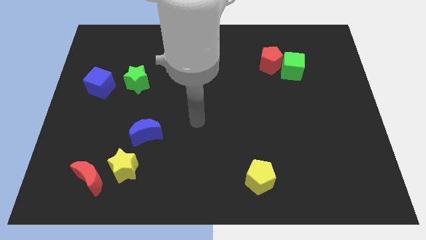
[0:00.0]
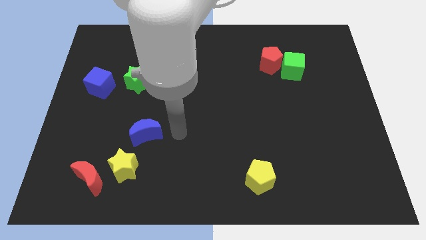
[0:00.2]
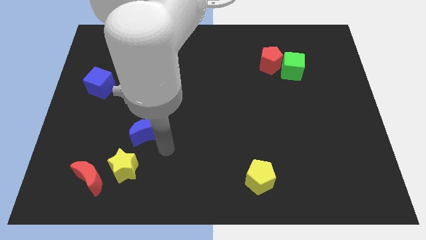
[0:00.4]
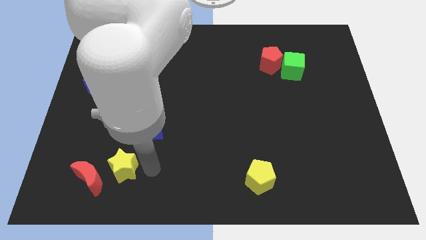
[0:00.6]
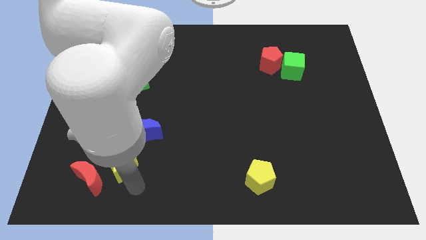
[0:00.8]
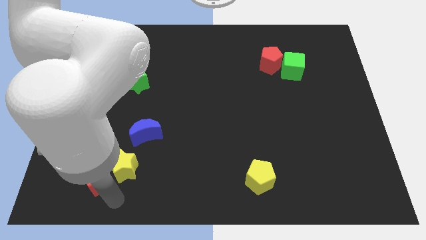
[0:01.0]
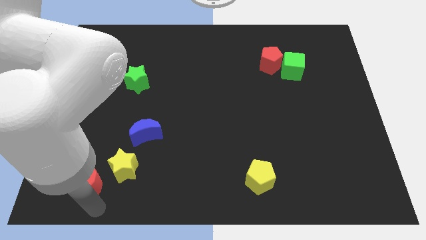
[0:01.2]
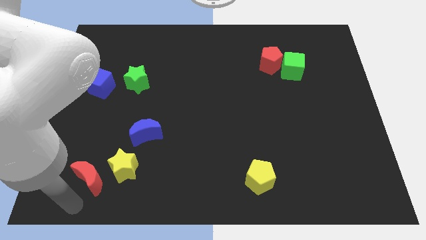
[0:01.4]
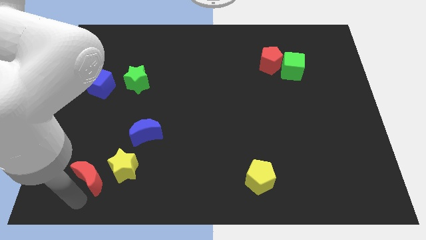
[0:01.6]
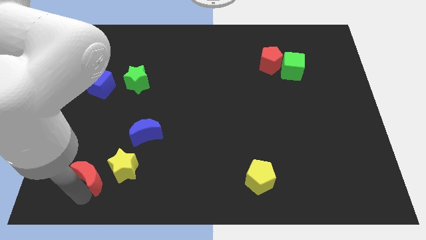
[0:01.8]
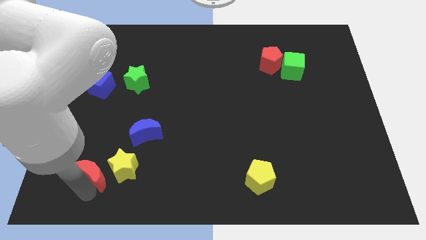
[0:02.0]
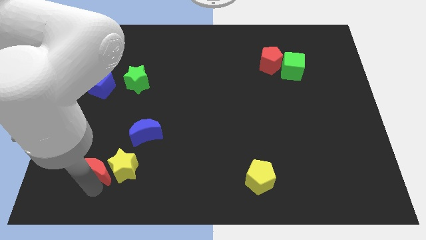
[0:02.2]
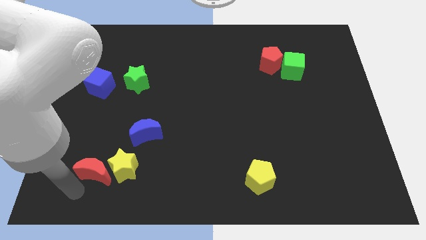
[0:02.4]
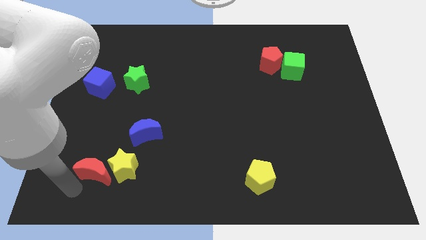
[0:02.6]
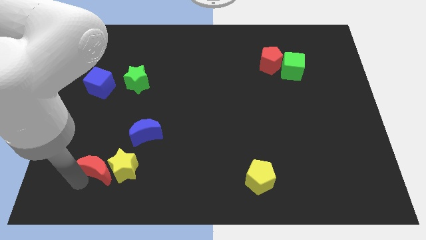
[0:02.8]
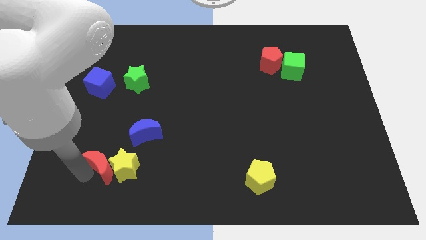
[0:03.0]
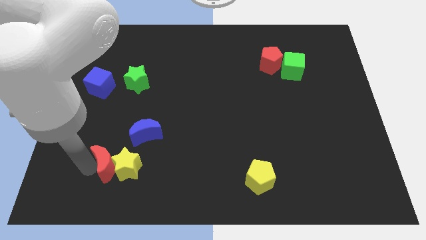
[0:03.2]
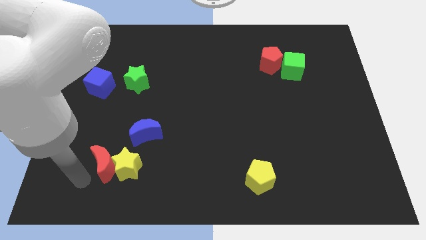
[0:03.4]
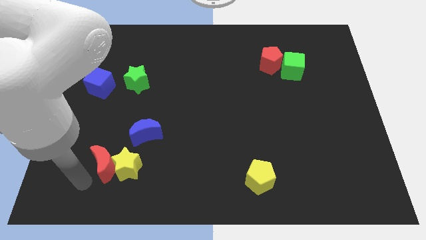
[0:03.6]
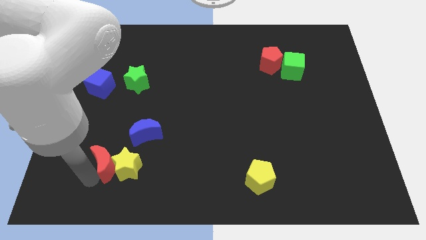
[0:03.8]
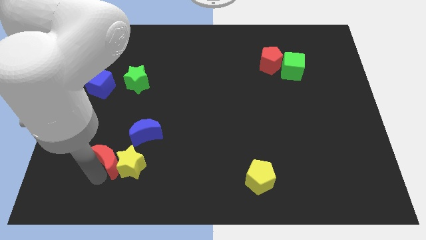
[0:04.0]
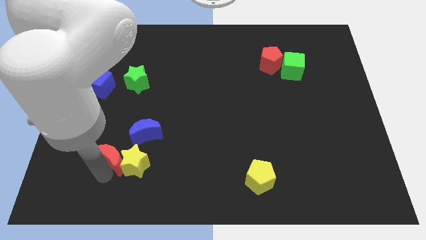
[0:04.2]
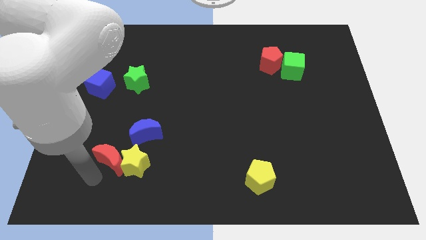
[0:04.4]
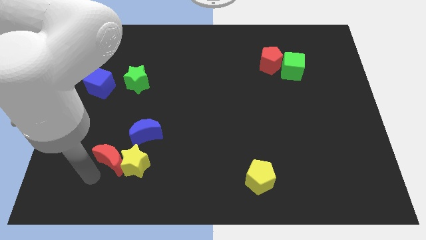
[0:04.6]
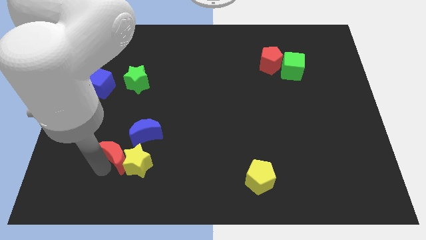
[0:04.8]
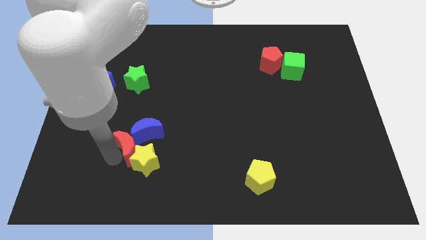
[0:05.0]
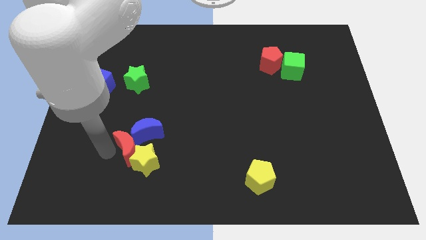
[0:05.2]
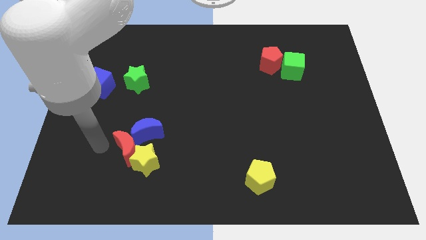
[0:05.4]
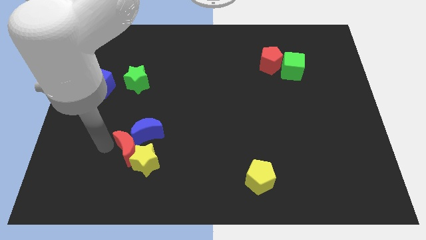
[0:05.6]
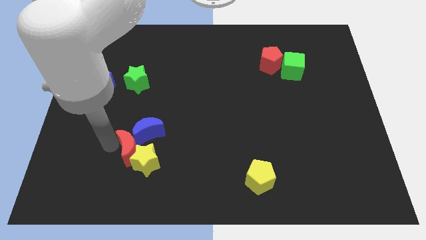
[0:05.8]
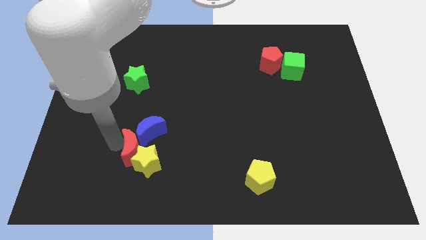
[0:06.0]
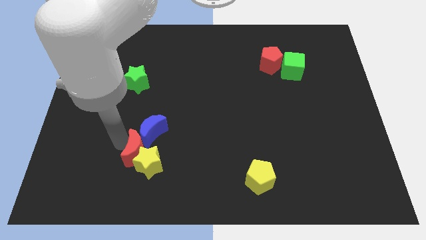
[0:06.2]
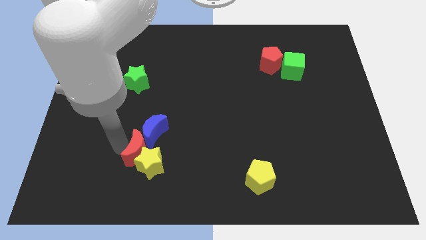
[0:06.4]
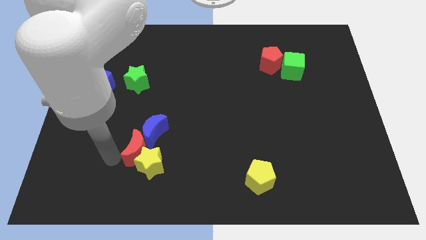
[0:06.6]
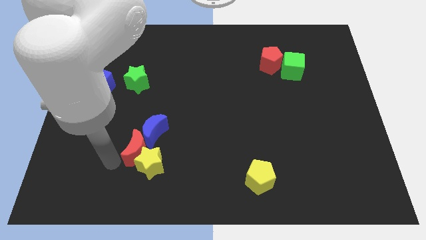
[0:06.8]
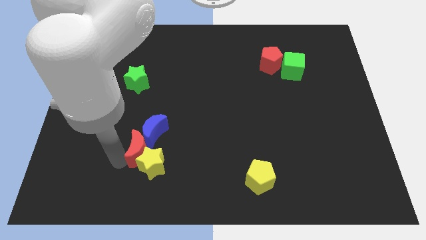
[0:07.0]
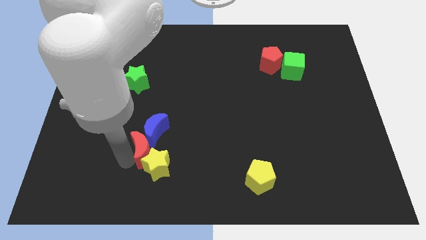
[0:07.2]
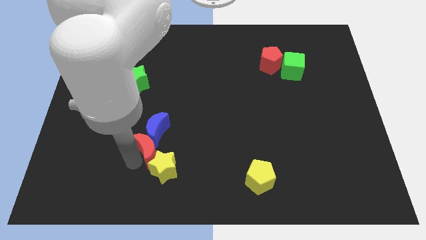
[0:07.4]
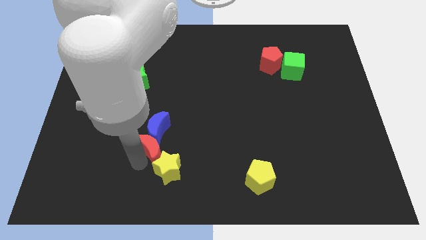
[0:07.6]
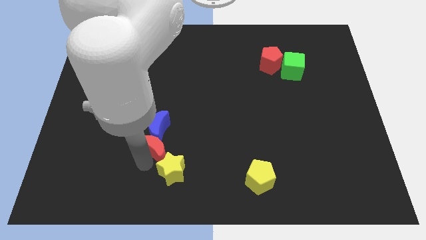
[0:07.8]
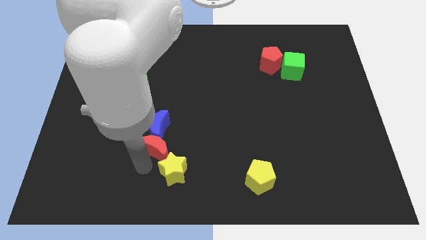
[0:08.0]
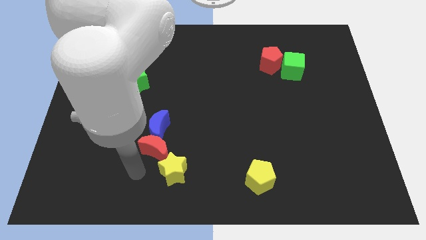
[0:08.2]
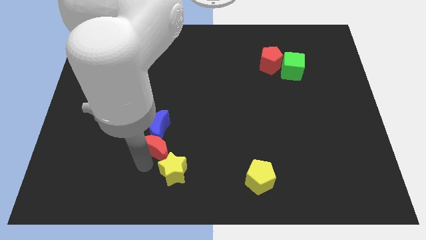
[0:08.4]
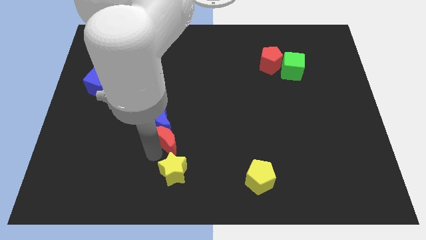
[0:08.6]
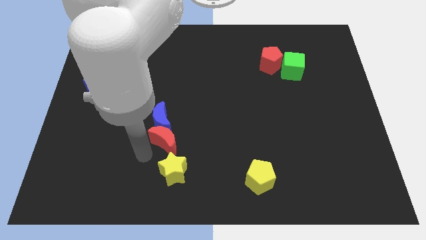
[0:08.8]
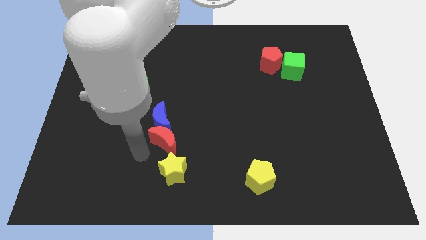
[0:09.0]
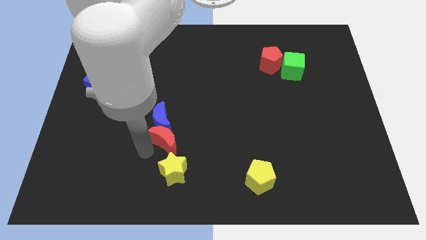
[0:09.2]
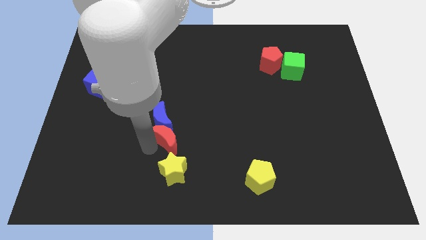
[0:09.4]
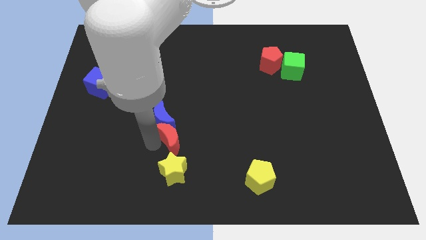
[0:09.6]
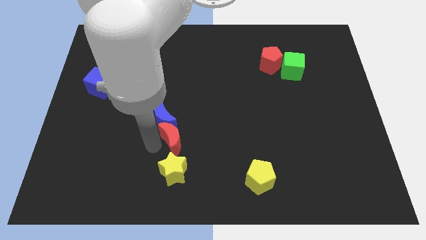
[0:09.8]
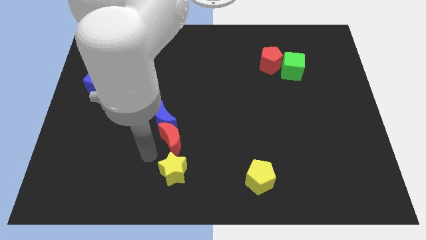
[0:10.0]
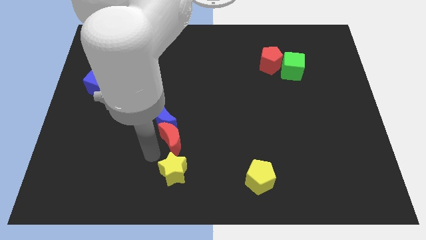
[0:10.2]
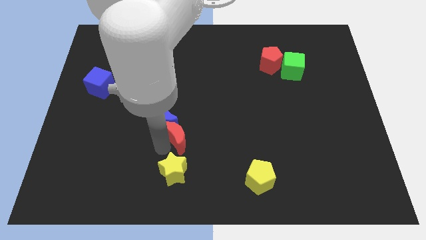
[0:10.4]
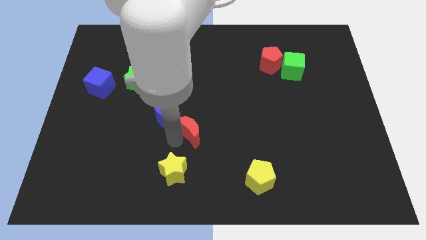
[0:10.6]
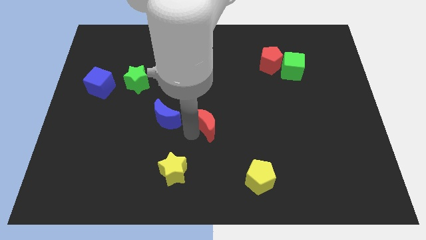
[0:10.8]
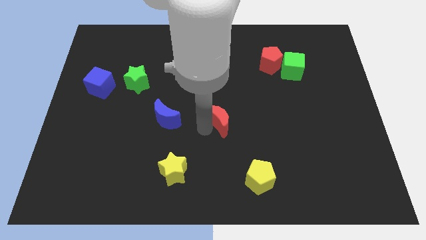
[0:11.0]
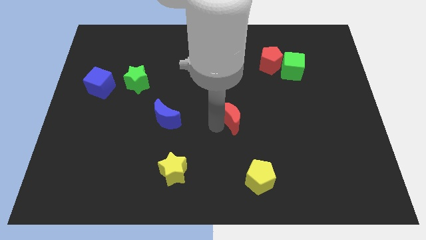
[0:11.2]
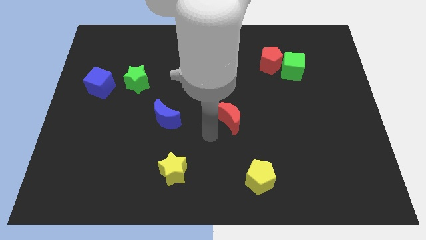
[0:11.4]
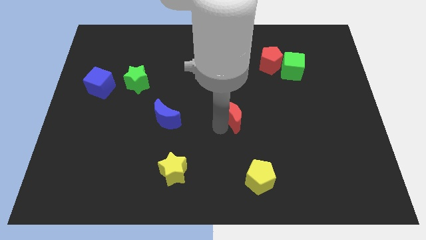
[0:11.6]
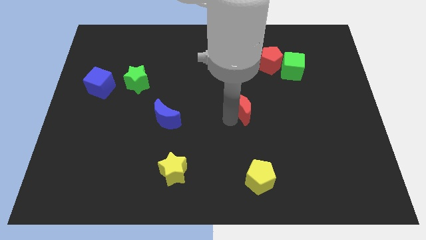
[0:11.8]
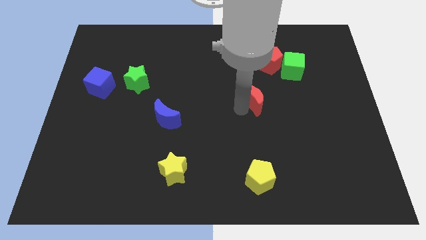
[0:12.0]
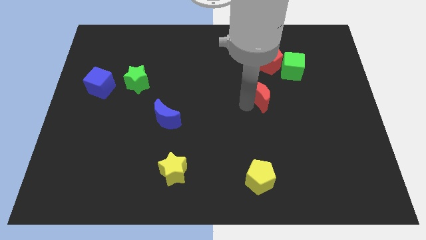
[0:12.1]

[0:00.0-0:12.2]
move the red moon to the bottom of the red pentagon
